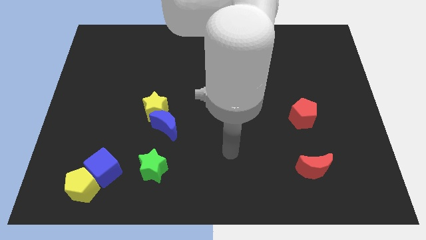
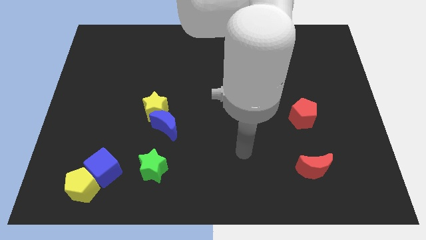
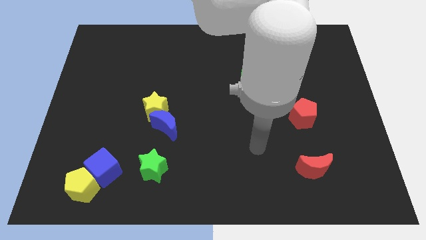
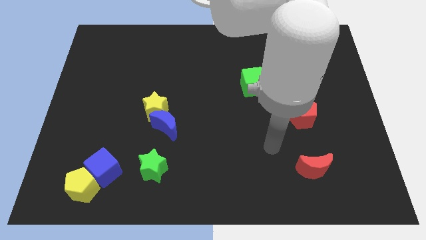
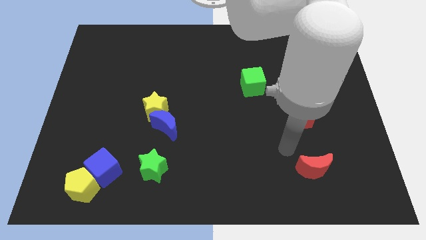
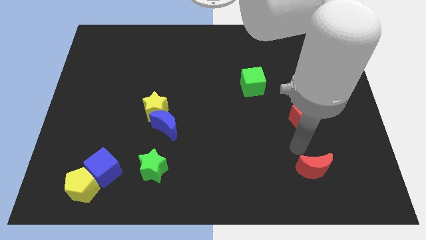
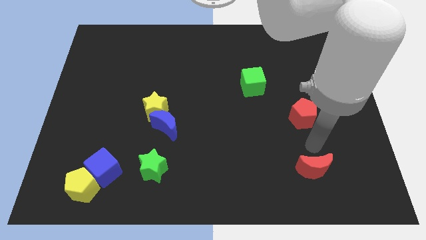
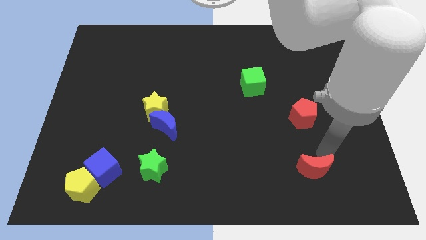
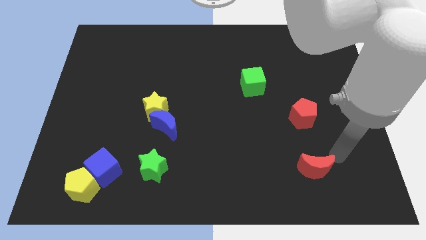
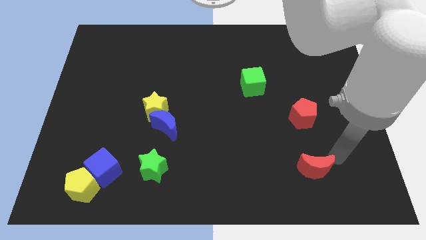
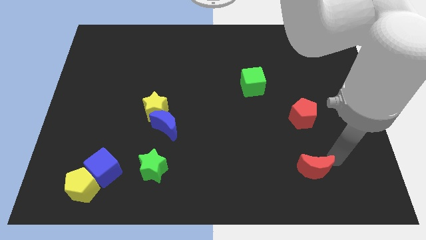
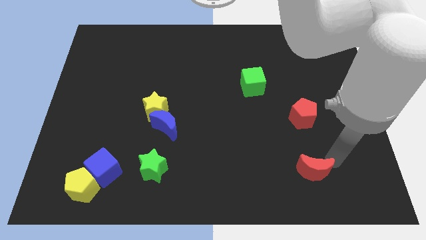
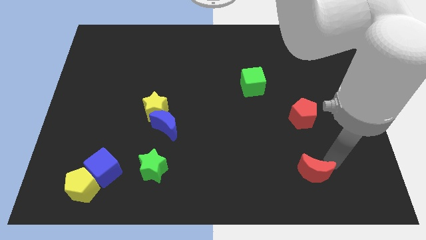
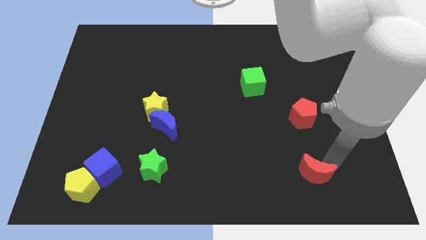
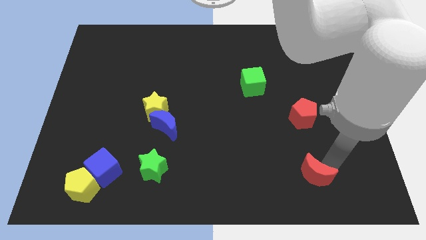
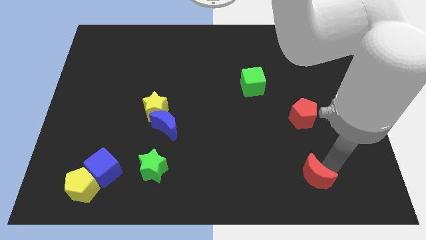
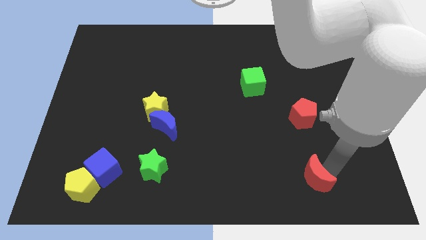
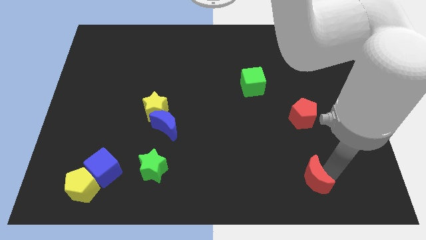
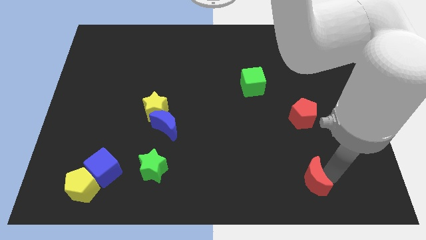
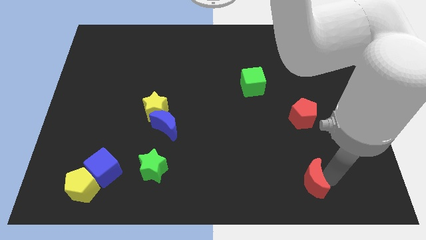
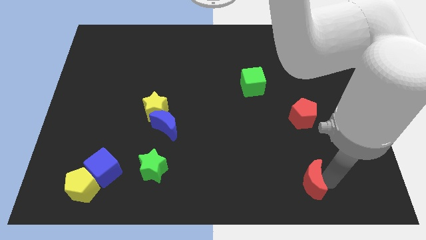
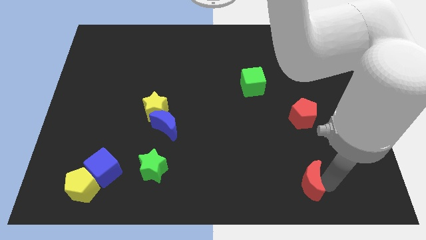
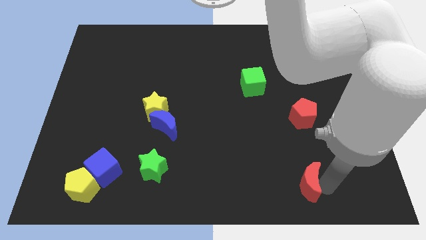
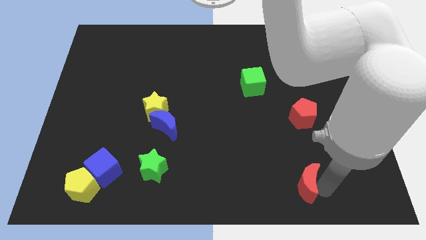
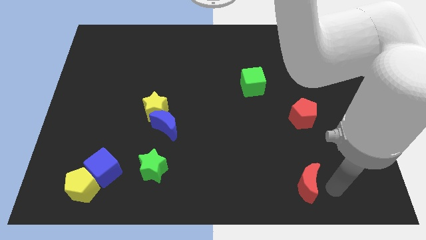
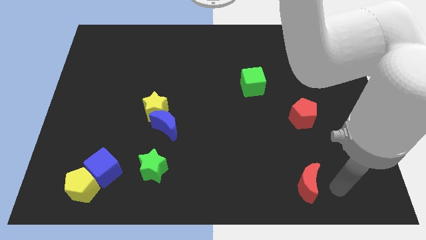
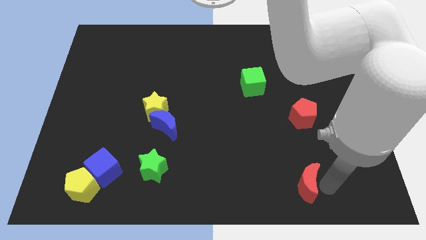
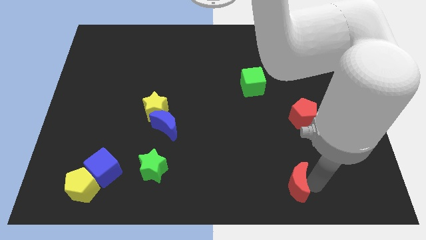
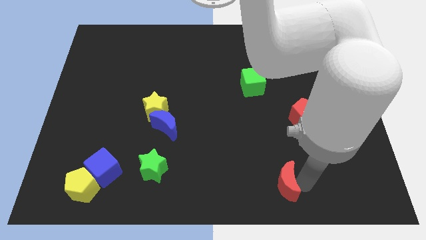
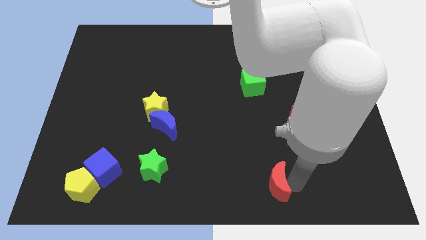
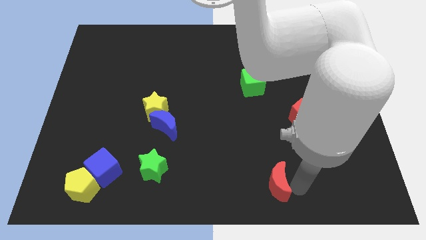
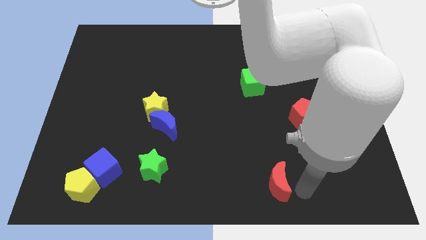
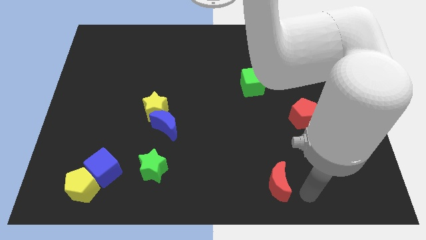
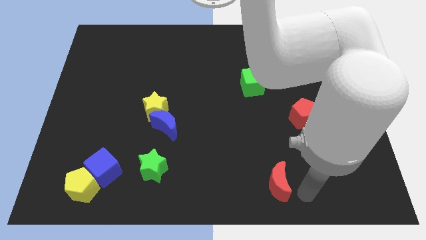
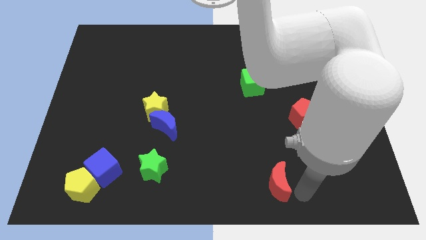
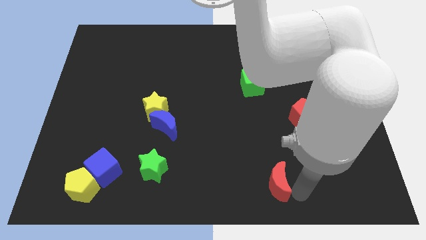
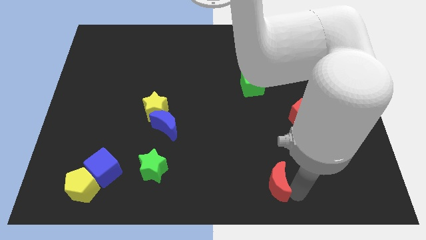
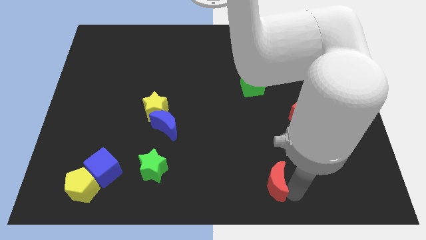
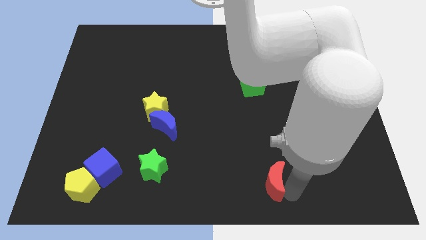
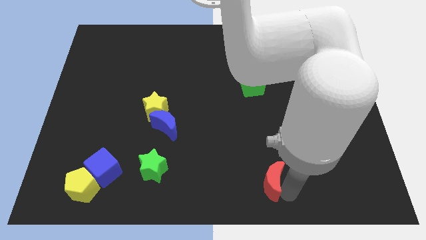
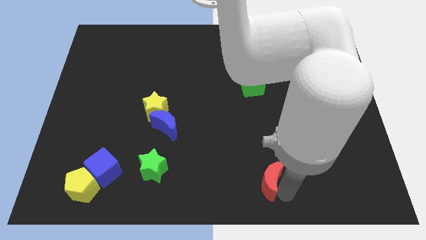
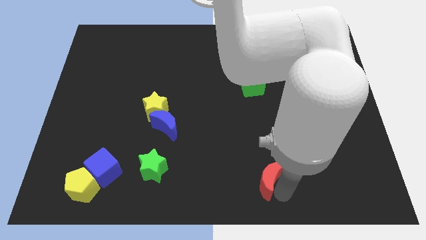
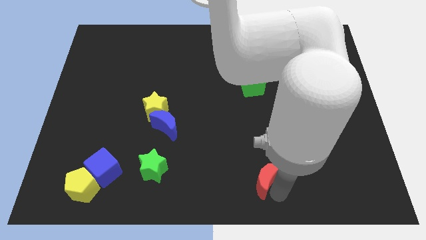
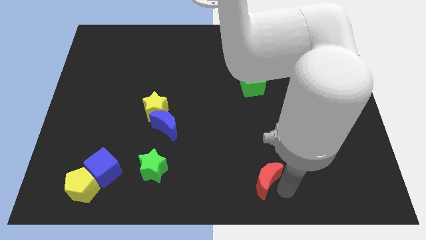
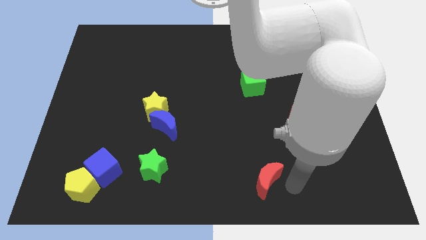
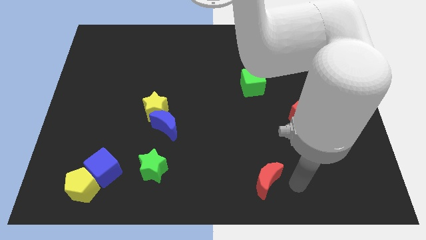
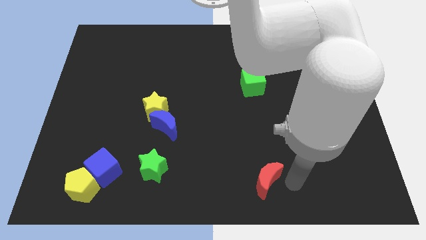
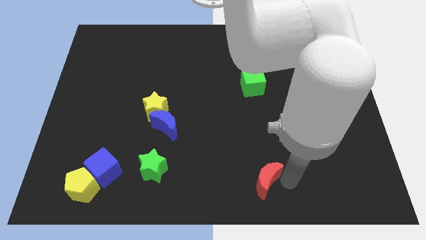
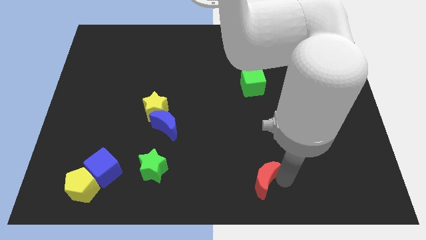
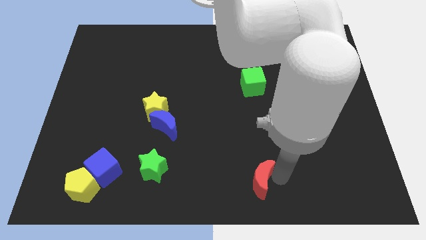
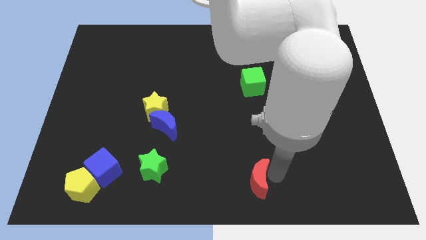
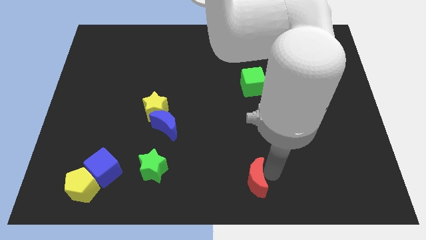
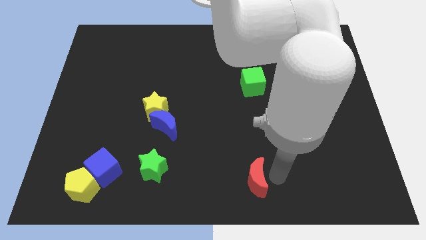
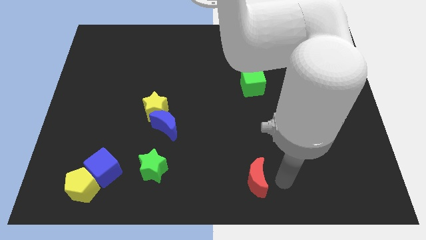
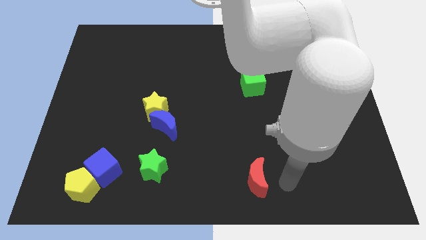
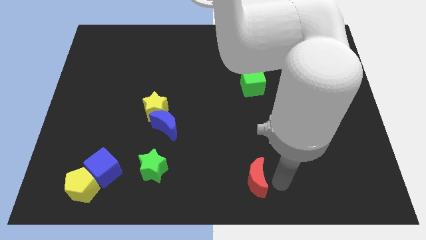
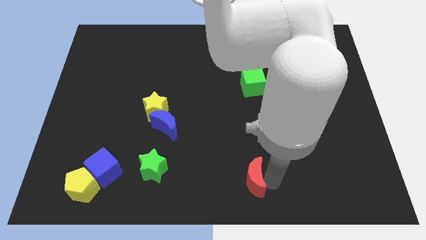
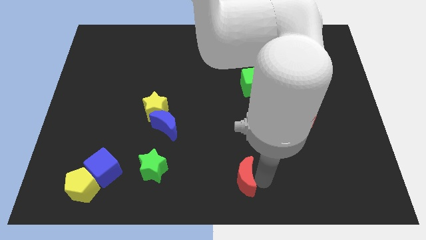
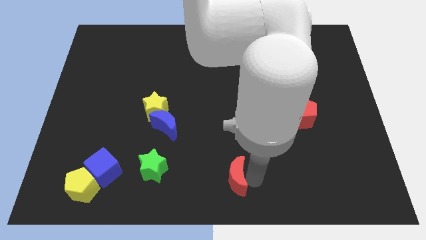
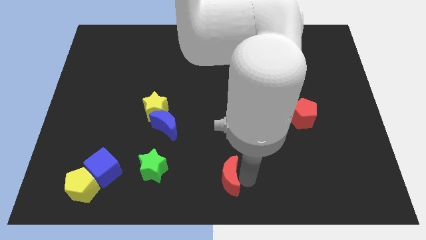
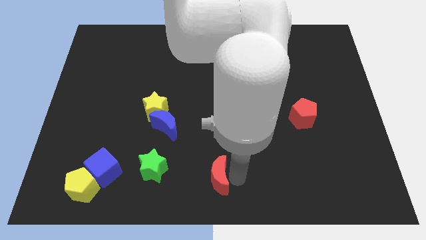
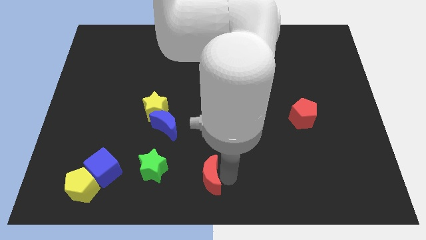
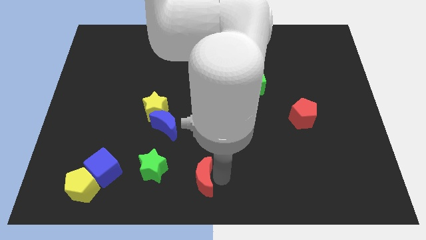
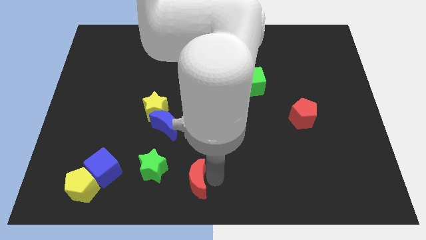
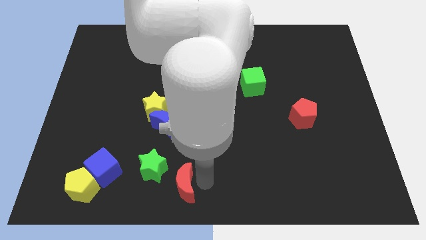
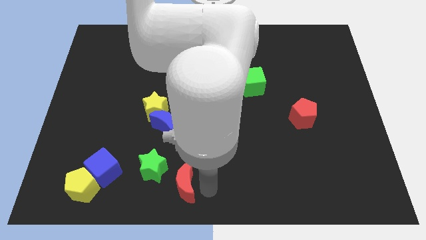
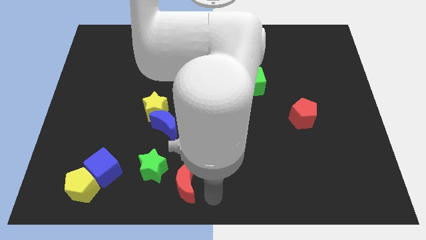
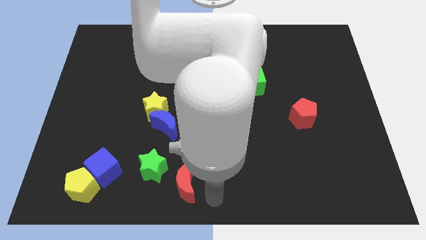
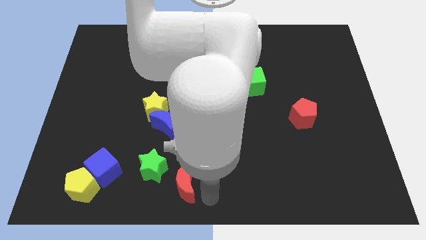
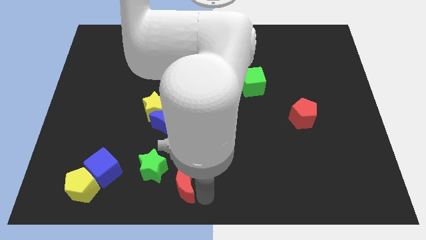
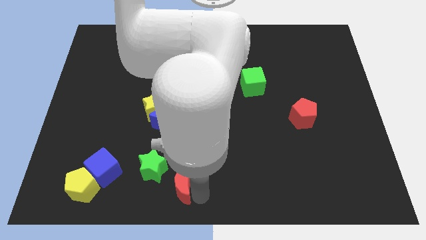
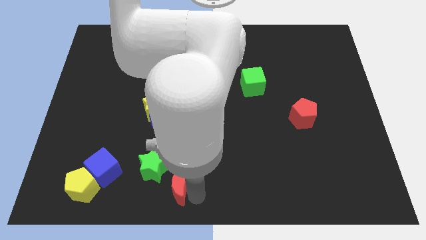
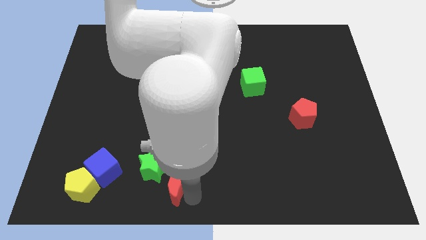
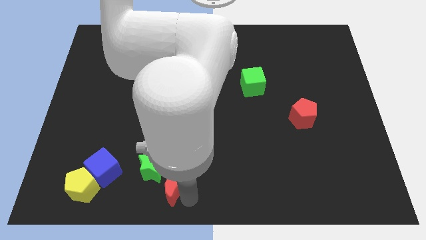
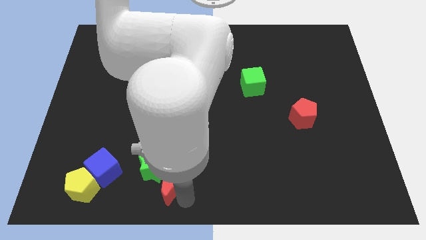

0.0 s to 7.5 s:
push the red moon next to the green star

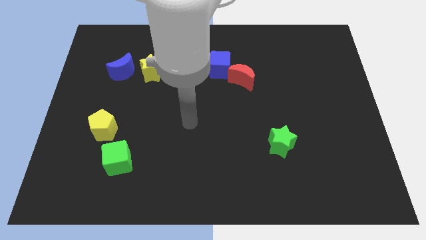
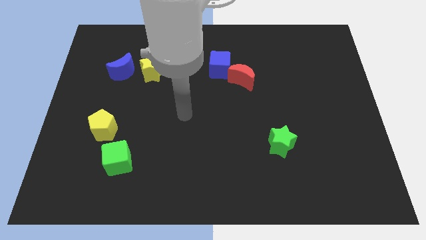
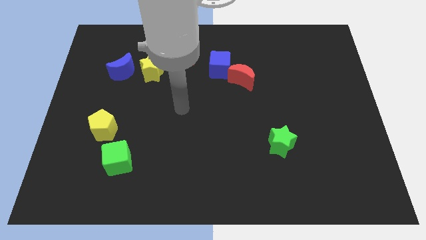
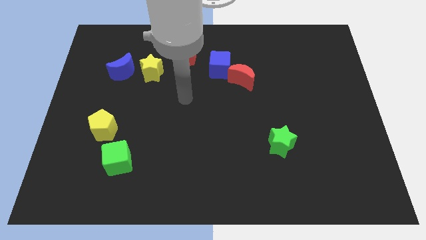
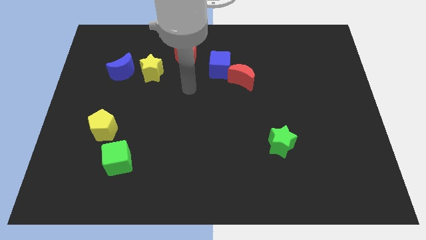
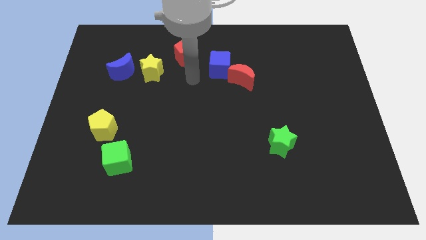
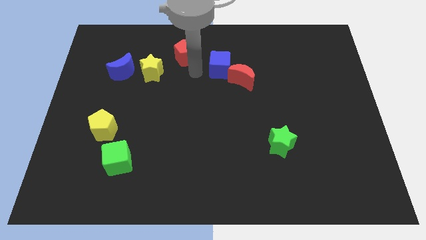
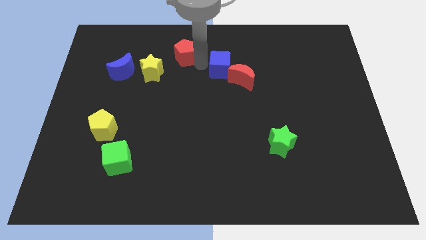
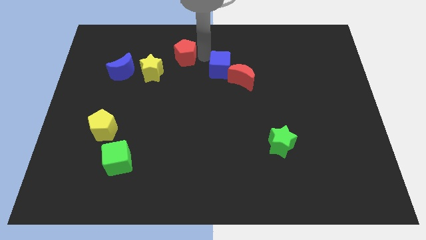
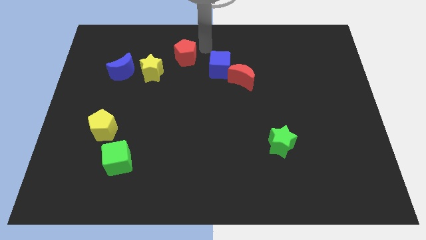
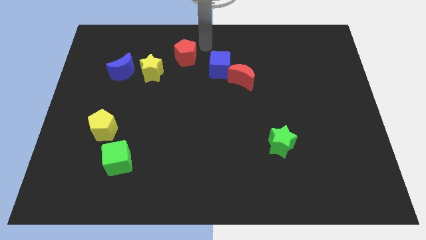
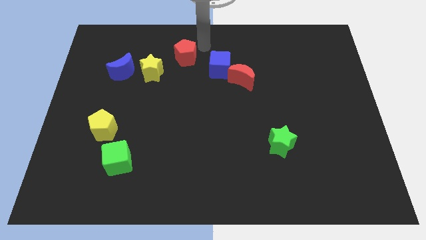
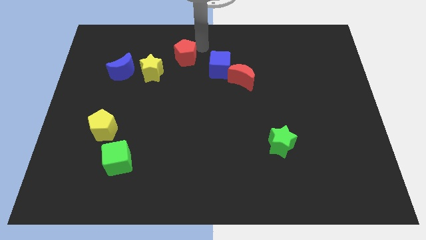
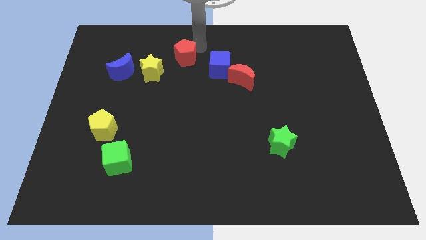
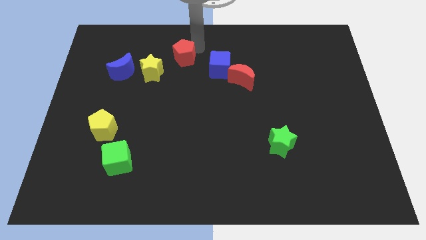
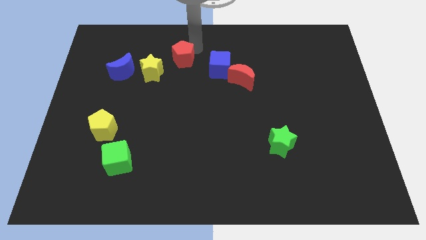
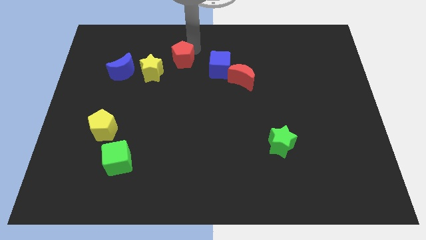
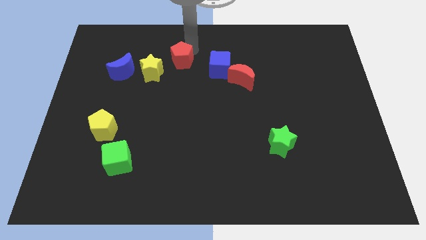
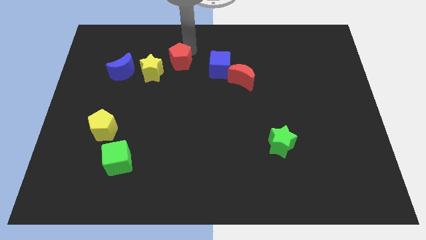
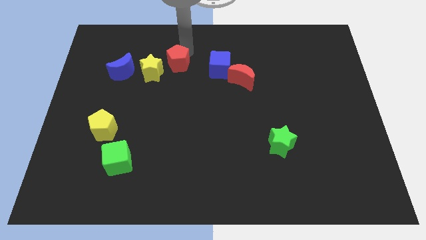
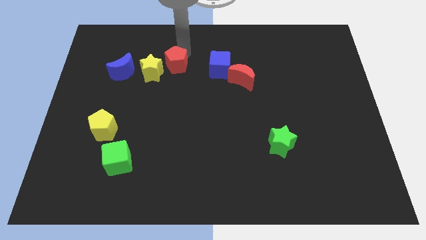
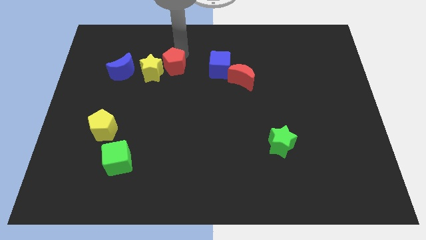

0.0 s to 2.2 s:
put the red pentagon towards the yellow star
